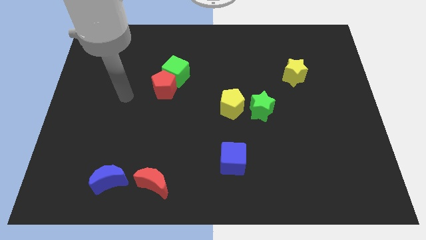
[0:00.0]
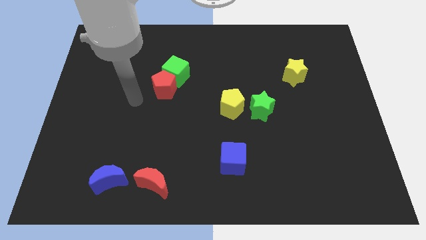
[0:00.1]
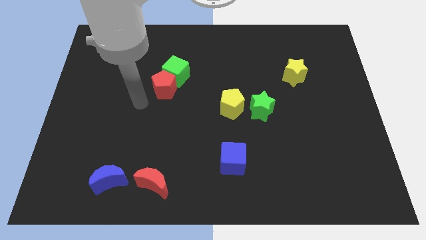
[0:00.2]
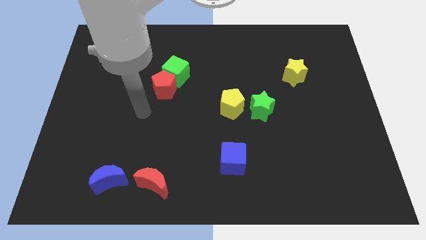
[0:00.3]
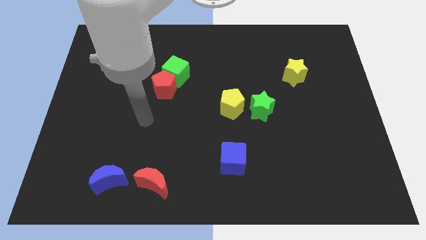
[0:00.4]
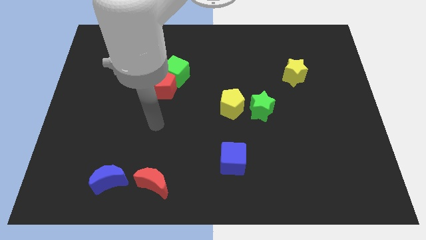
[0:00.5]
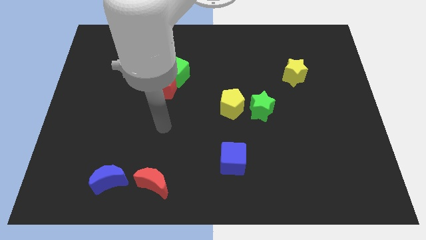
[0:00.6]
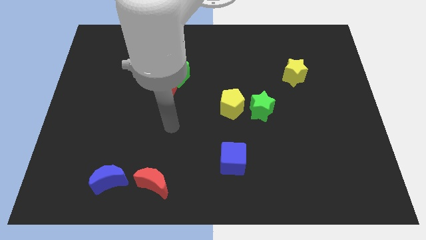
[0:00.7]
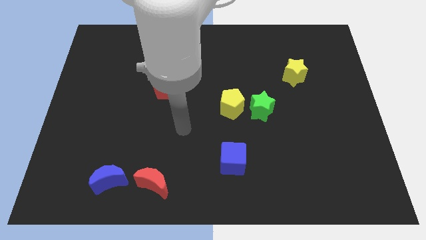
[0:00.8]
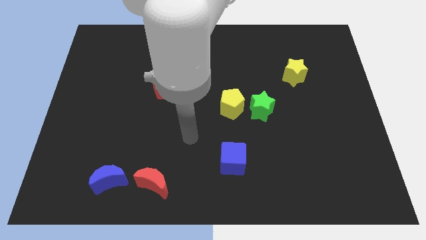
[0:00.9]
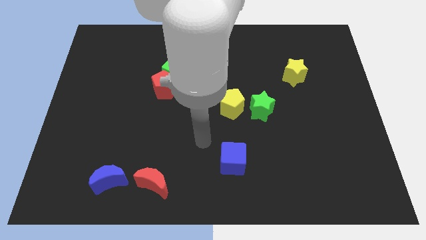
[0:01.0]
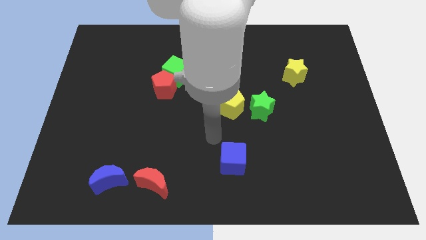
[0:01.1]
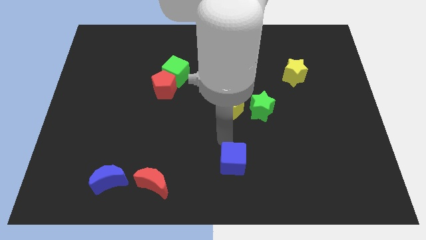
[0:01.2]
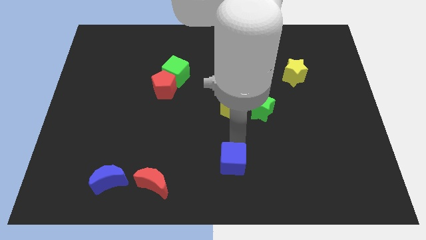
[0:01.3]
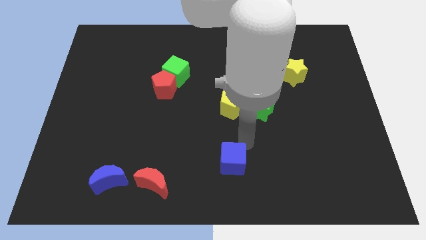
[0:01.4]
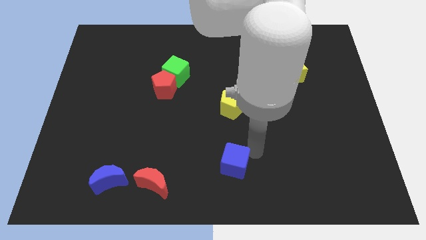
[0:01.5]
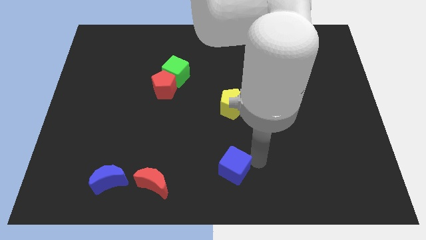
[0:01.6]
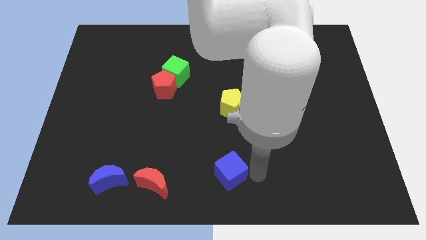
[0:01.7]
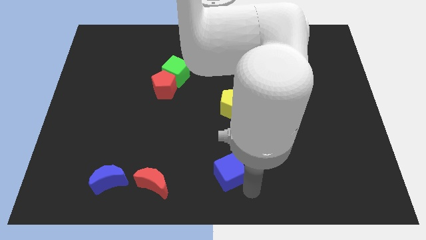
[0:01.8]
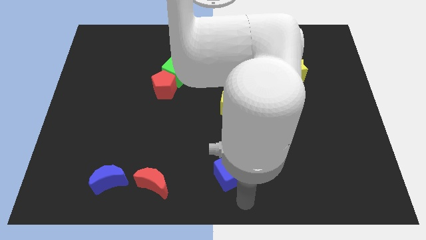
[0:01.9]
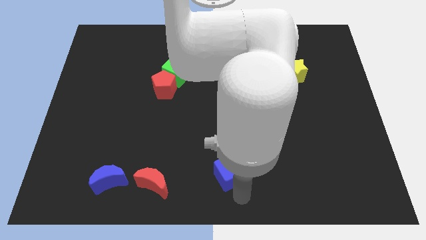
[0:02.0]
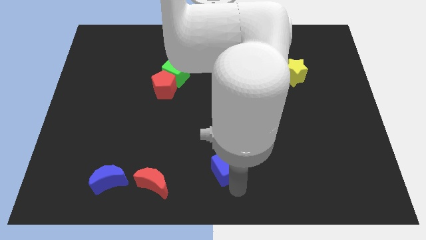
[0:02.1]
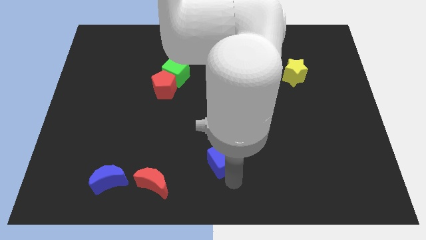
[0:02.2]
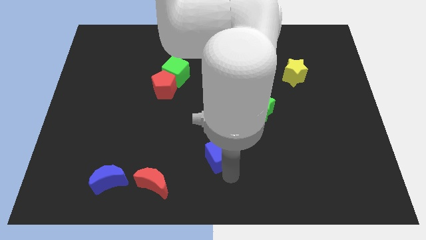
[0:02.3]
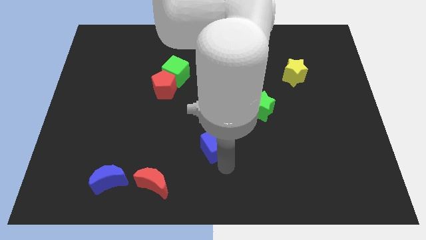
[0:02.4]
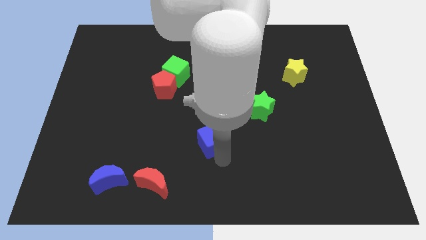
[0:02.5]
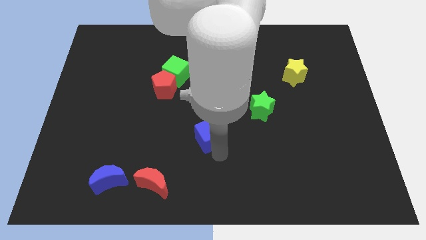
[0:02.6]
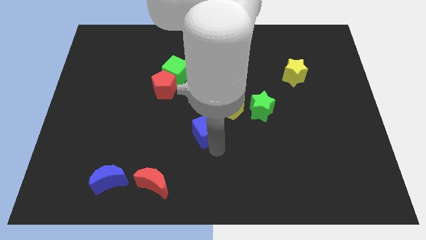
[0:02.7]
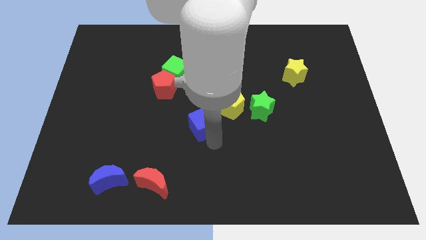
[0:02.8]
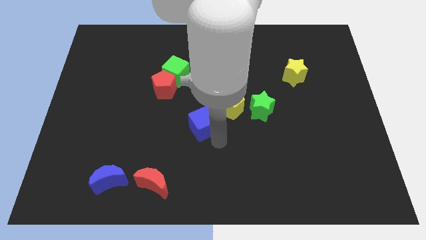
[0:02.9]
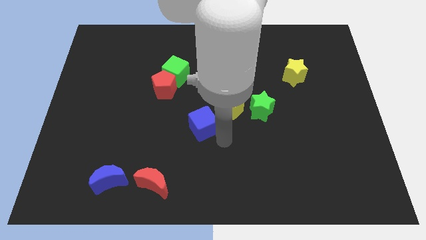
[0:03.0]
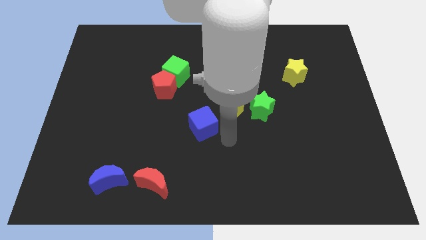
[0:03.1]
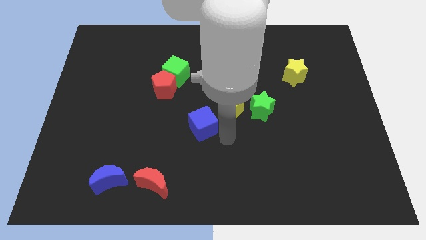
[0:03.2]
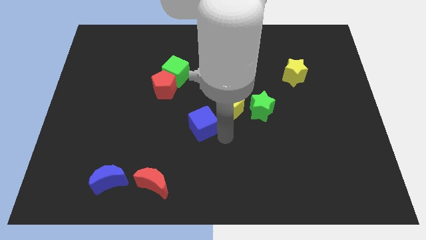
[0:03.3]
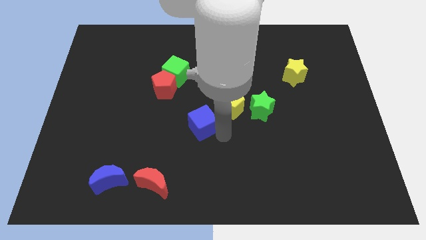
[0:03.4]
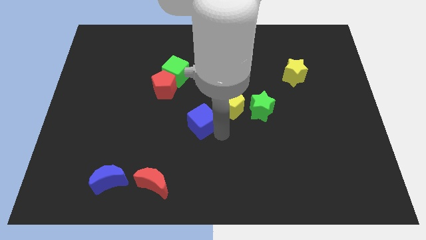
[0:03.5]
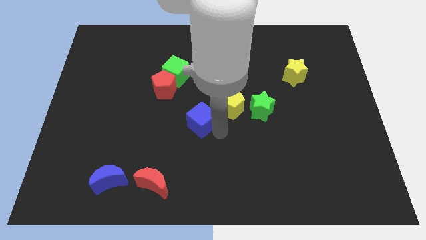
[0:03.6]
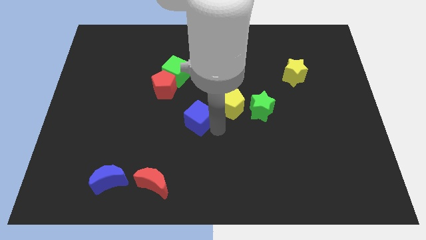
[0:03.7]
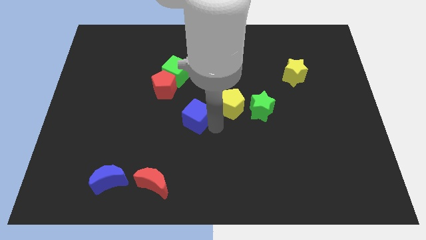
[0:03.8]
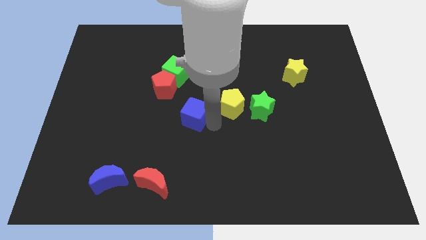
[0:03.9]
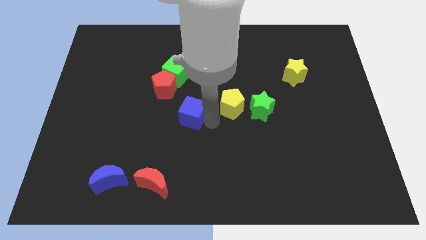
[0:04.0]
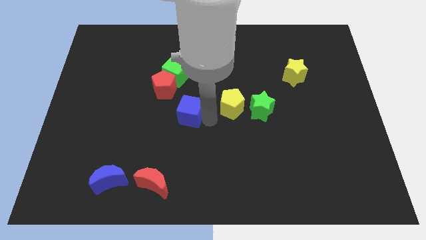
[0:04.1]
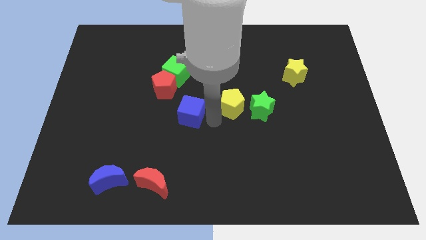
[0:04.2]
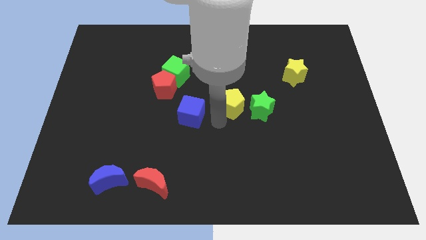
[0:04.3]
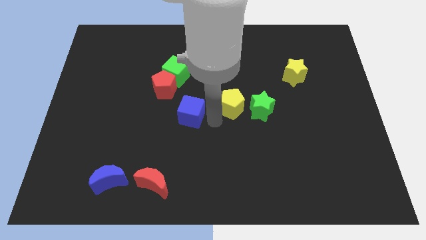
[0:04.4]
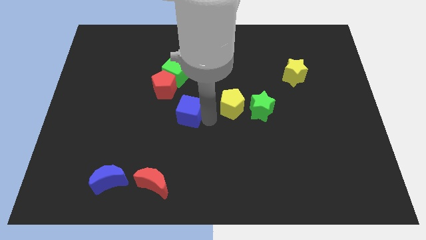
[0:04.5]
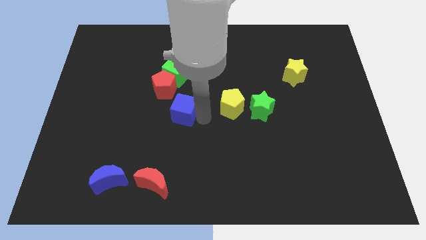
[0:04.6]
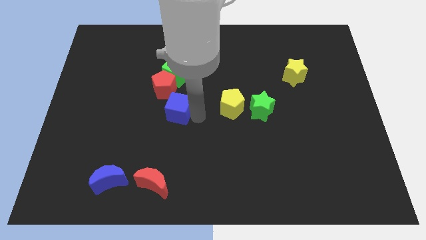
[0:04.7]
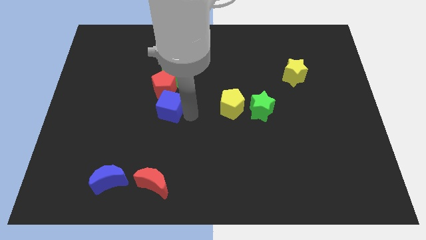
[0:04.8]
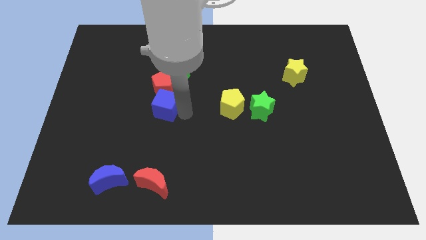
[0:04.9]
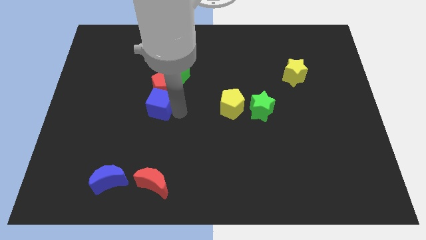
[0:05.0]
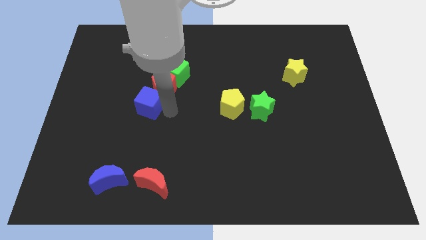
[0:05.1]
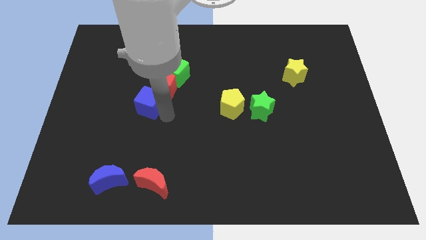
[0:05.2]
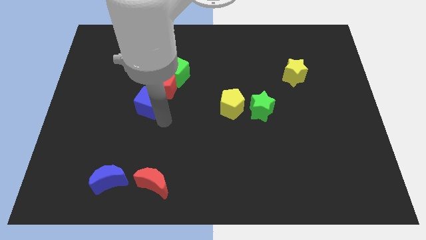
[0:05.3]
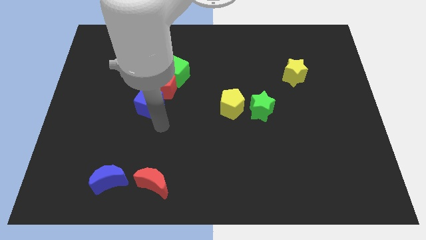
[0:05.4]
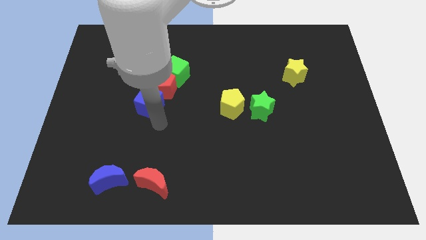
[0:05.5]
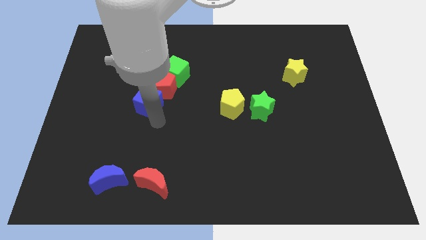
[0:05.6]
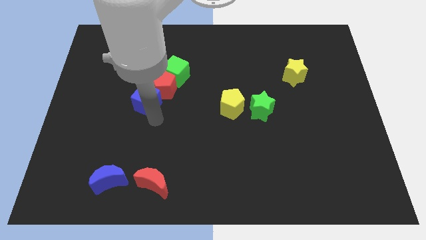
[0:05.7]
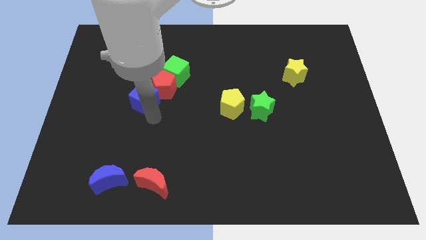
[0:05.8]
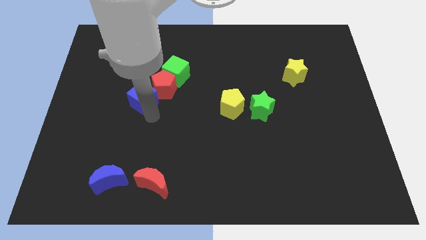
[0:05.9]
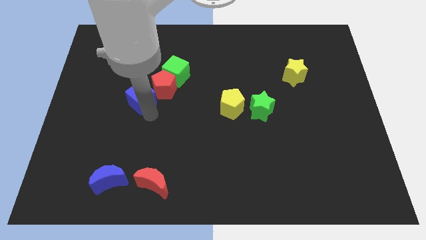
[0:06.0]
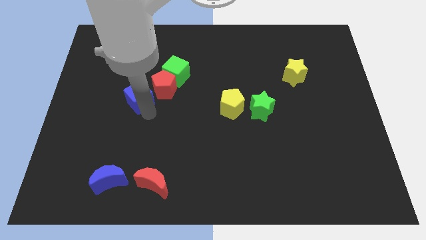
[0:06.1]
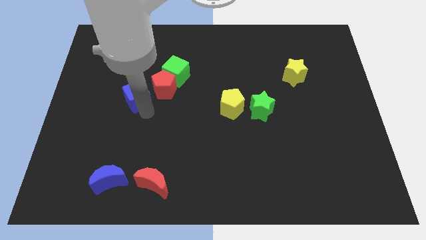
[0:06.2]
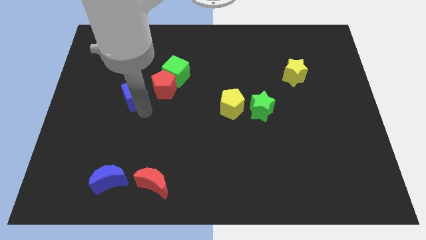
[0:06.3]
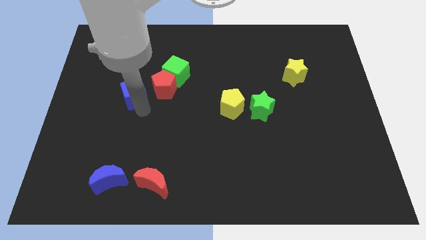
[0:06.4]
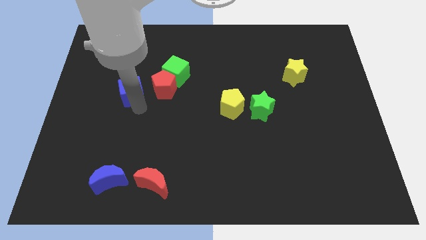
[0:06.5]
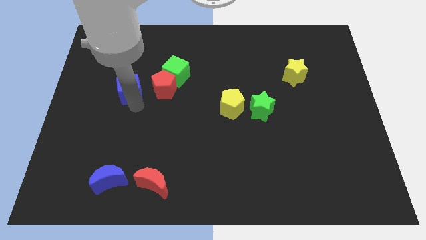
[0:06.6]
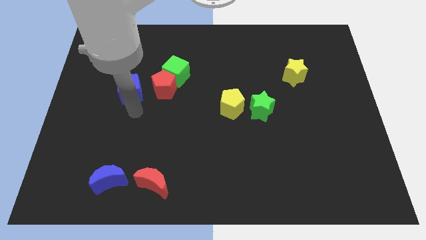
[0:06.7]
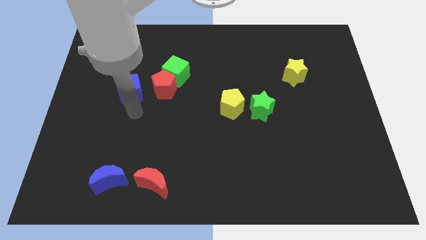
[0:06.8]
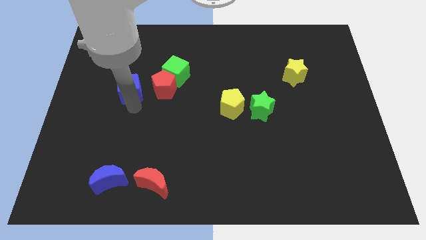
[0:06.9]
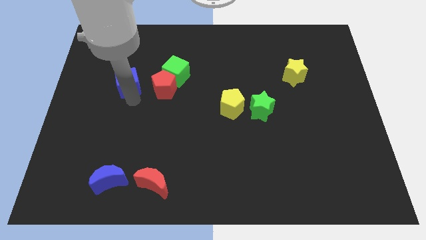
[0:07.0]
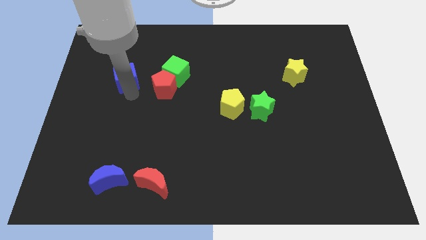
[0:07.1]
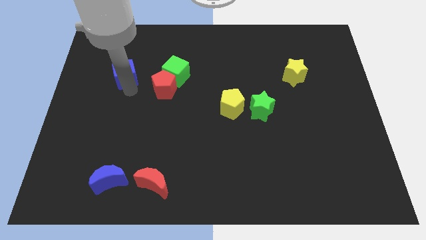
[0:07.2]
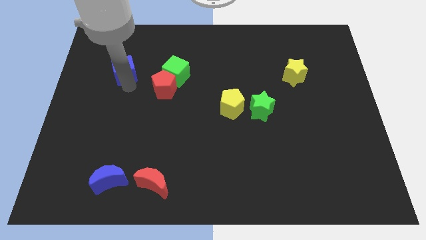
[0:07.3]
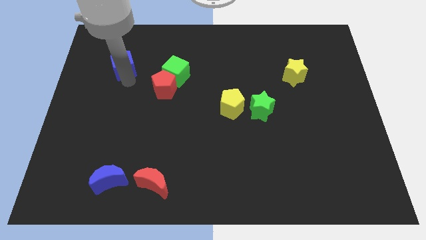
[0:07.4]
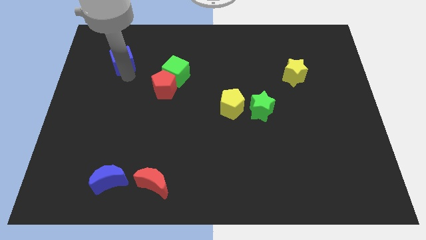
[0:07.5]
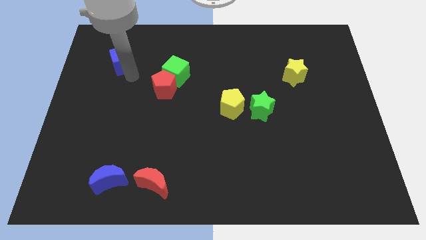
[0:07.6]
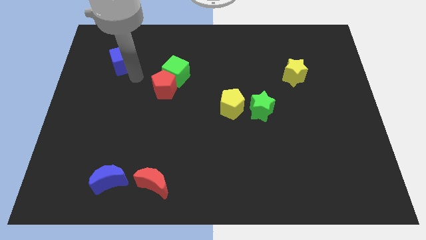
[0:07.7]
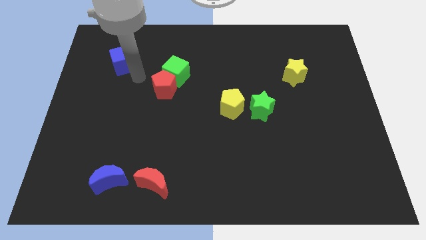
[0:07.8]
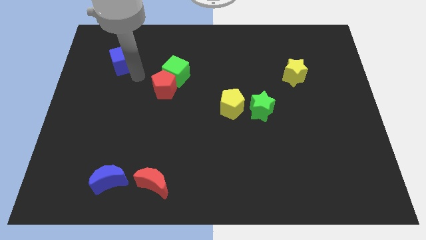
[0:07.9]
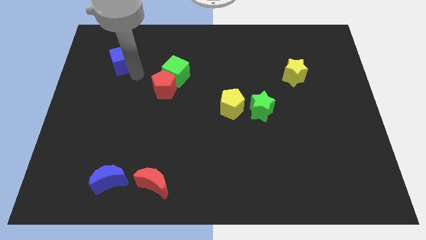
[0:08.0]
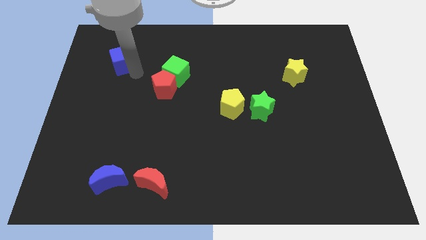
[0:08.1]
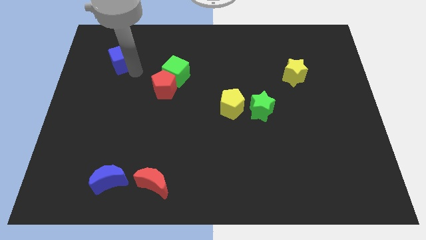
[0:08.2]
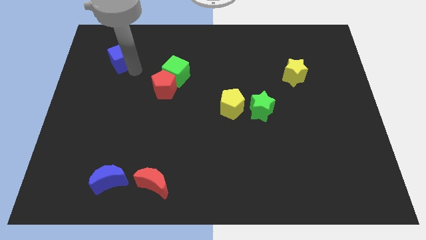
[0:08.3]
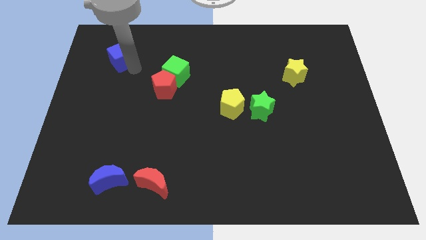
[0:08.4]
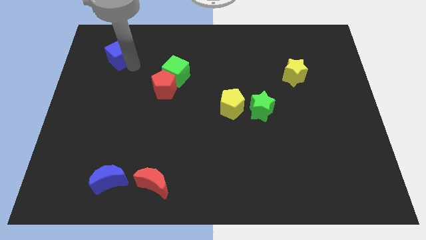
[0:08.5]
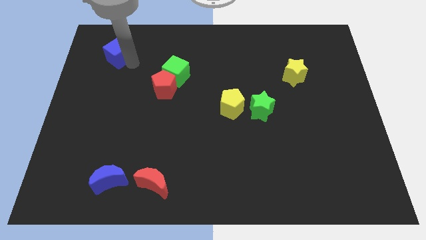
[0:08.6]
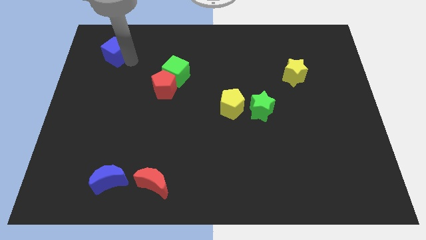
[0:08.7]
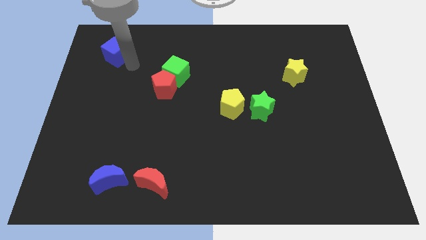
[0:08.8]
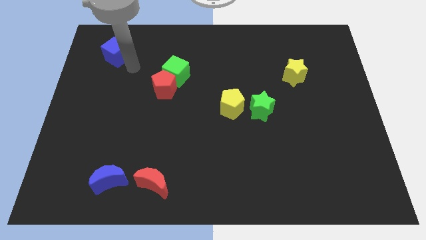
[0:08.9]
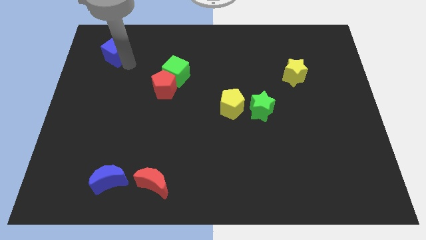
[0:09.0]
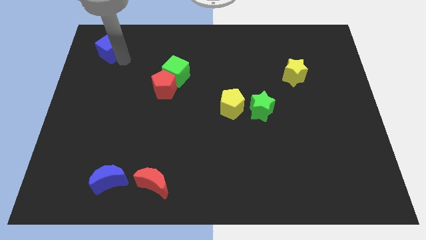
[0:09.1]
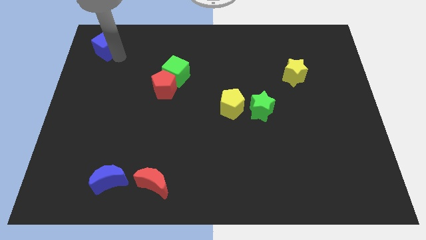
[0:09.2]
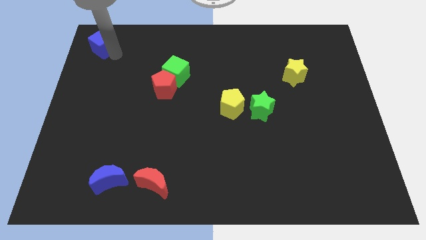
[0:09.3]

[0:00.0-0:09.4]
move the blue cube to the top left
